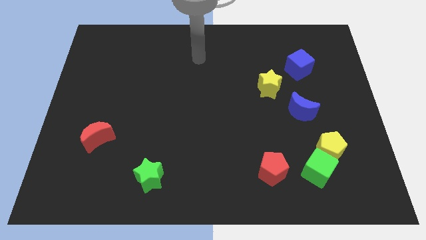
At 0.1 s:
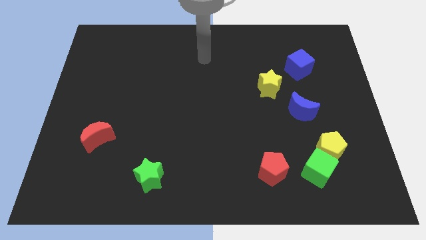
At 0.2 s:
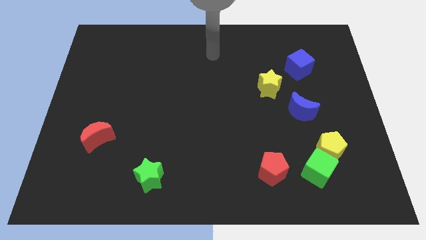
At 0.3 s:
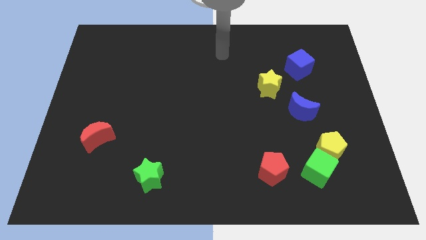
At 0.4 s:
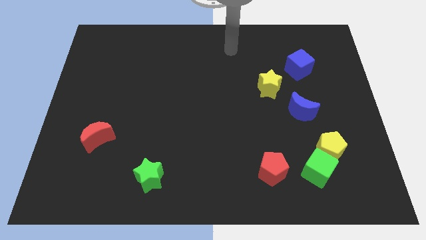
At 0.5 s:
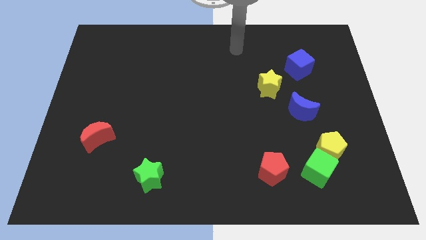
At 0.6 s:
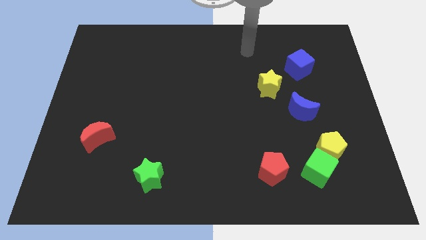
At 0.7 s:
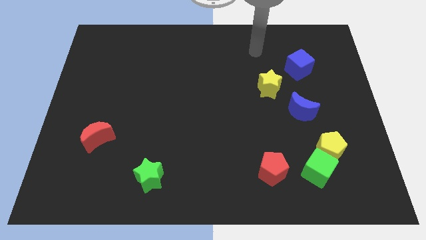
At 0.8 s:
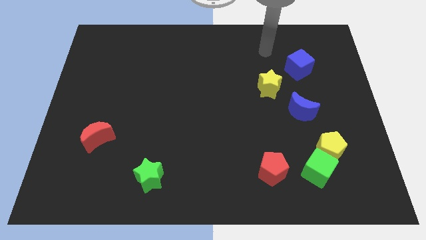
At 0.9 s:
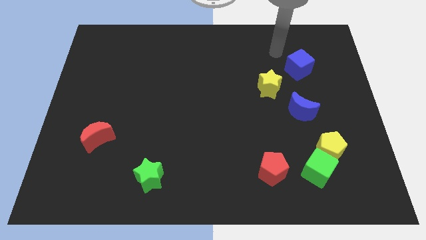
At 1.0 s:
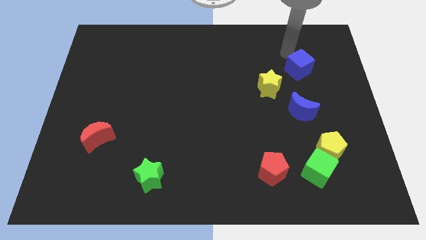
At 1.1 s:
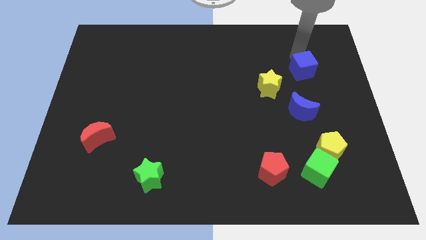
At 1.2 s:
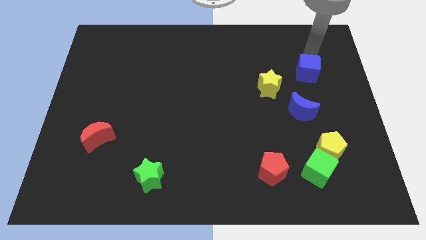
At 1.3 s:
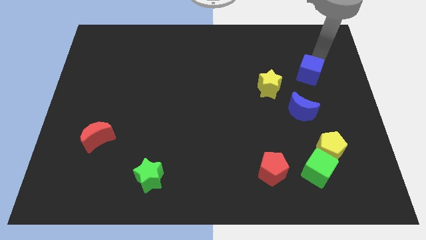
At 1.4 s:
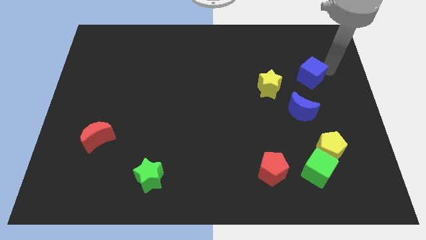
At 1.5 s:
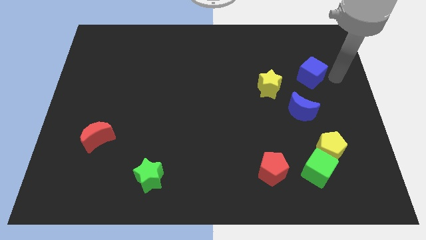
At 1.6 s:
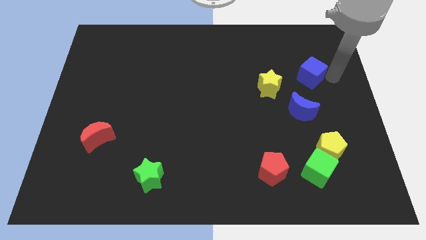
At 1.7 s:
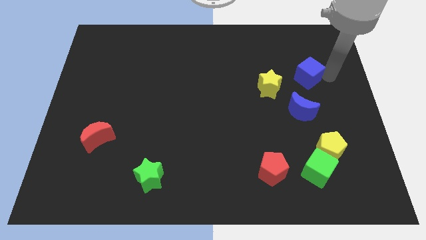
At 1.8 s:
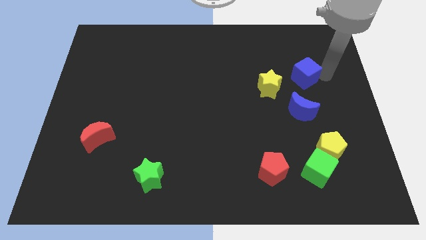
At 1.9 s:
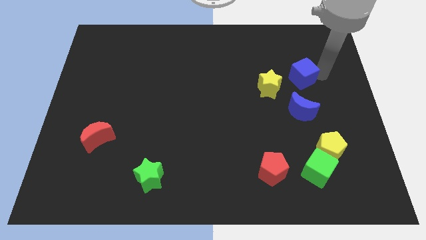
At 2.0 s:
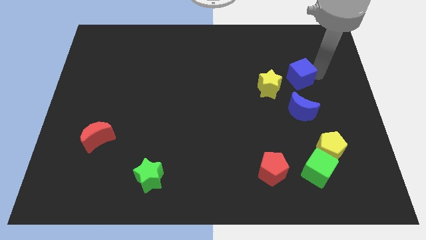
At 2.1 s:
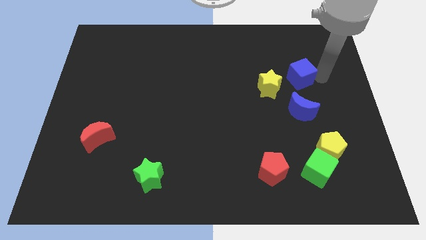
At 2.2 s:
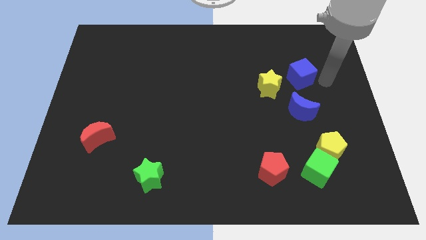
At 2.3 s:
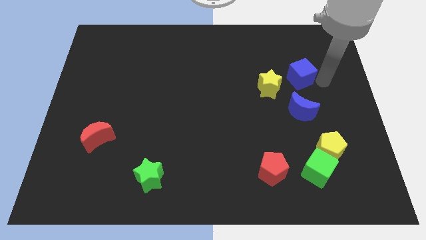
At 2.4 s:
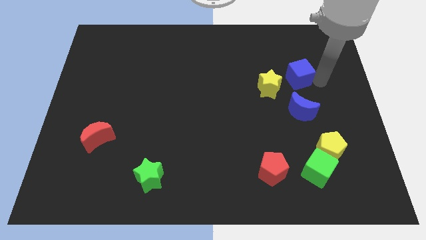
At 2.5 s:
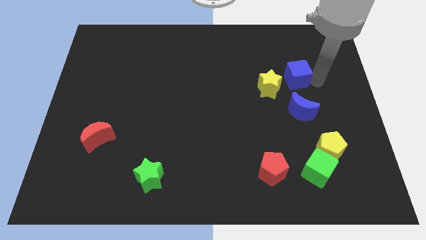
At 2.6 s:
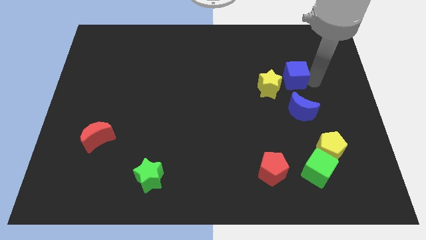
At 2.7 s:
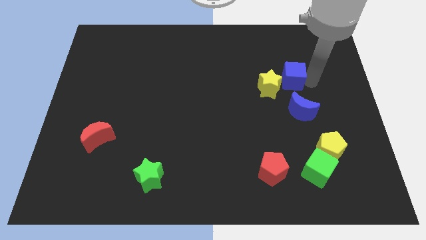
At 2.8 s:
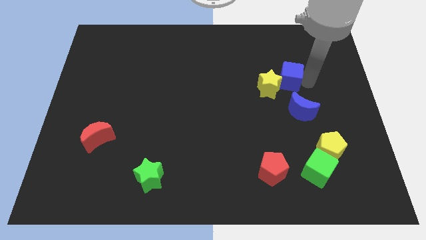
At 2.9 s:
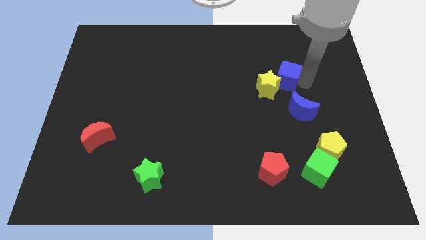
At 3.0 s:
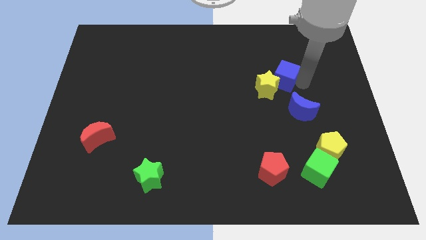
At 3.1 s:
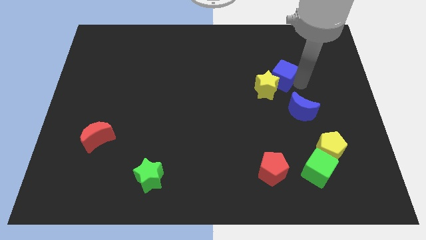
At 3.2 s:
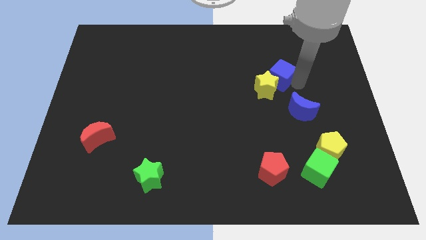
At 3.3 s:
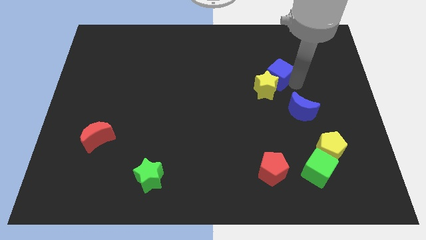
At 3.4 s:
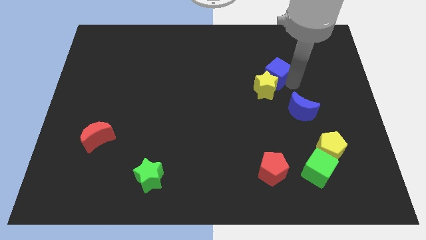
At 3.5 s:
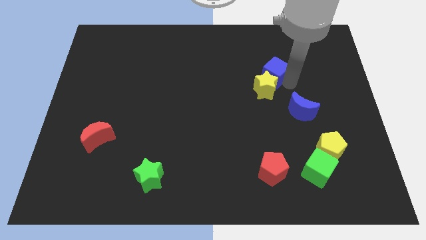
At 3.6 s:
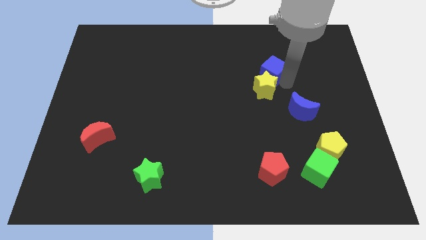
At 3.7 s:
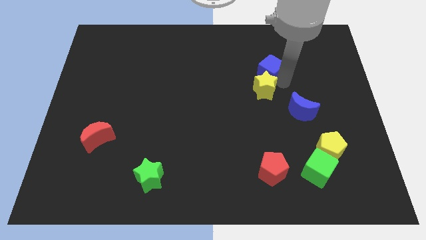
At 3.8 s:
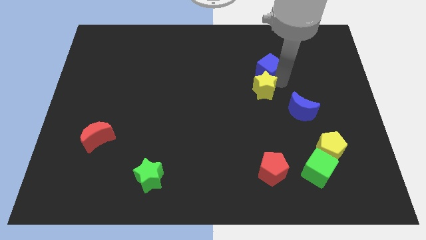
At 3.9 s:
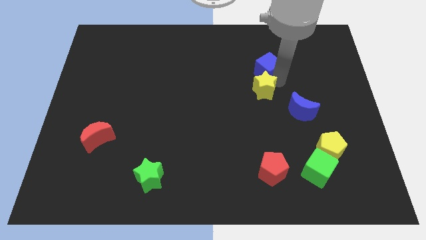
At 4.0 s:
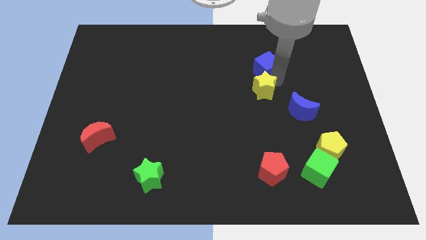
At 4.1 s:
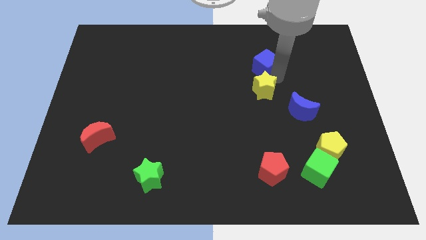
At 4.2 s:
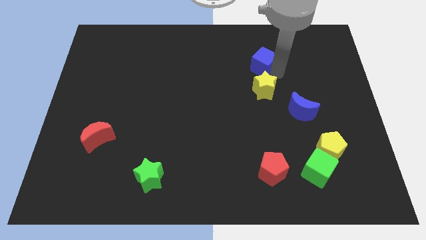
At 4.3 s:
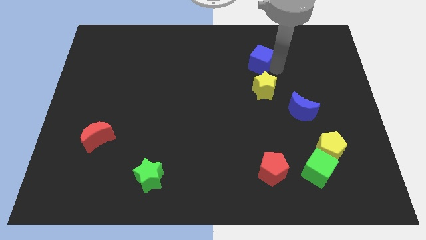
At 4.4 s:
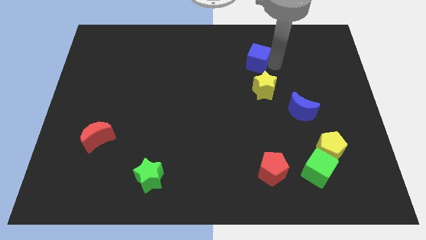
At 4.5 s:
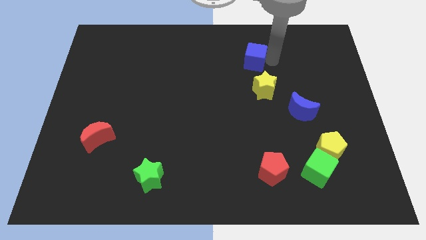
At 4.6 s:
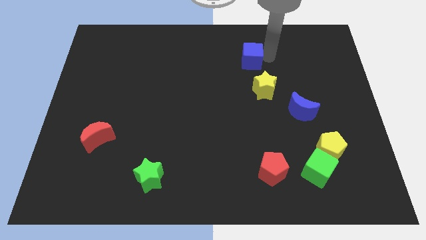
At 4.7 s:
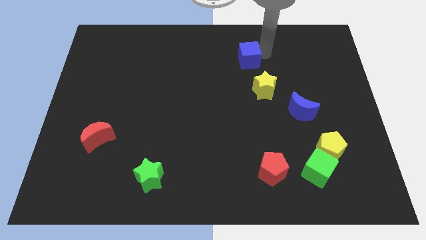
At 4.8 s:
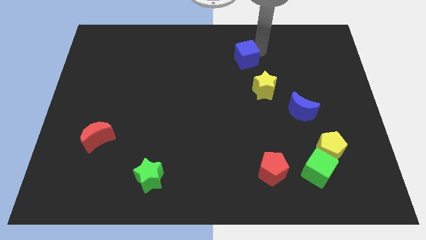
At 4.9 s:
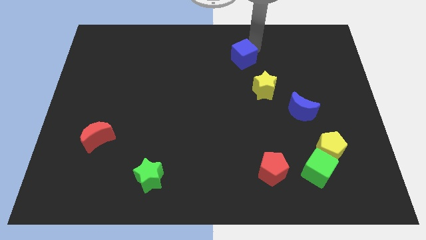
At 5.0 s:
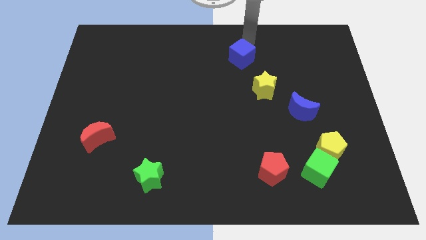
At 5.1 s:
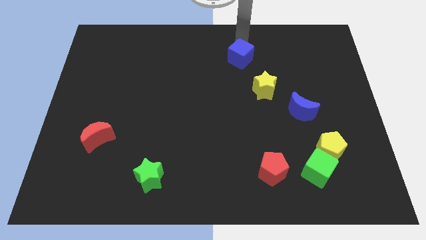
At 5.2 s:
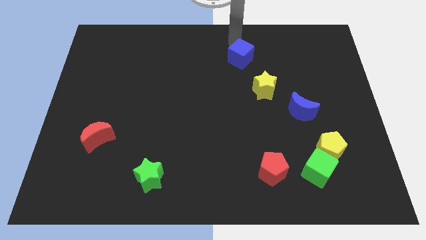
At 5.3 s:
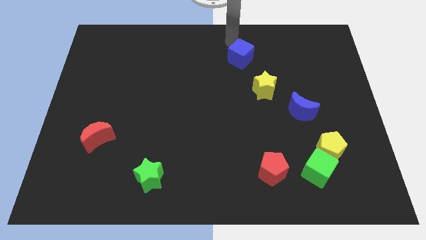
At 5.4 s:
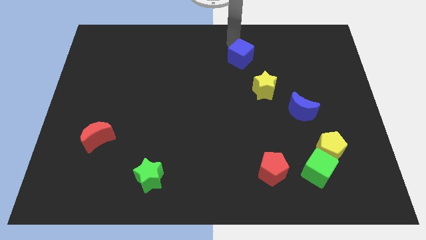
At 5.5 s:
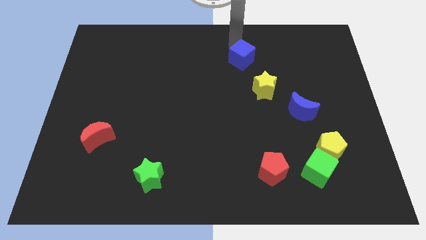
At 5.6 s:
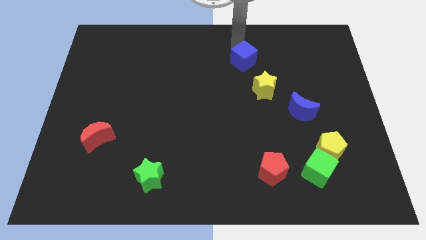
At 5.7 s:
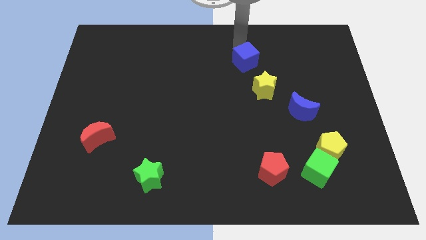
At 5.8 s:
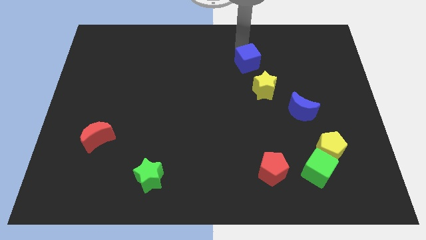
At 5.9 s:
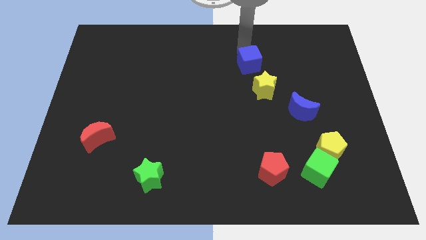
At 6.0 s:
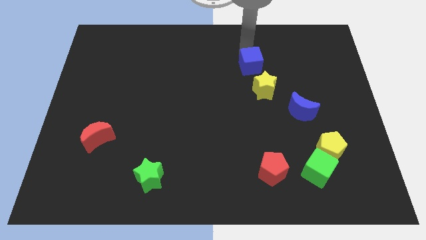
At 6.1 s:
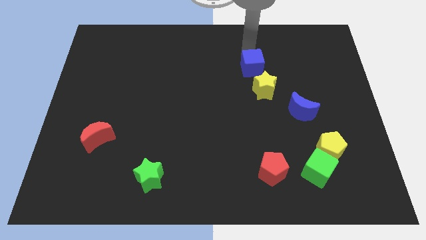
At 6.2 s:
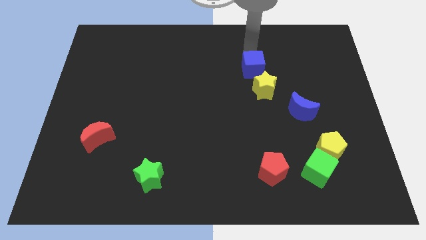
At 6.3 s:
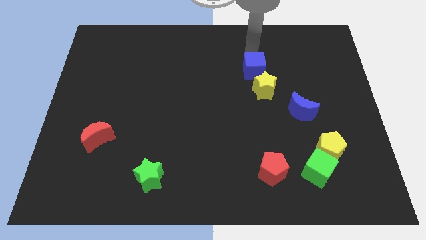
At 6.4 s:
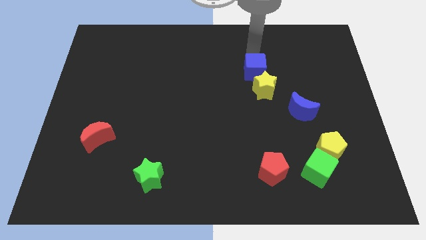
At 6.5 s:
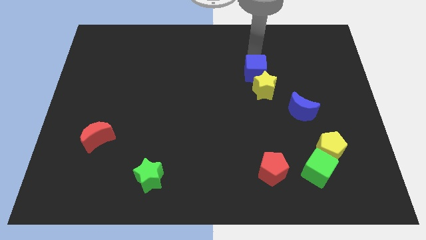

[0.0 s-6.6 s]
move the blue cube down and to the left diagonally a little

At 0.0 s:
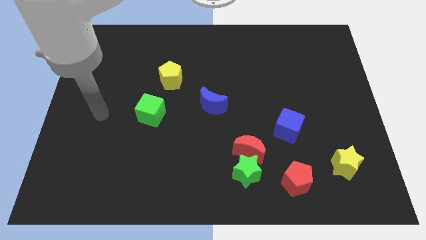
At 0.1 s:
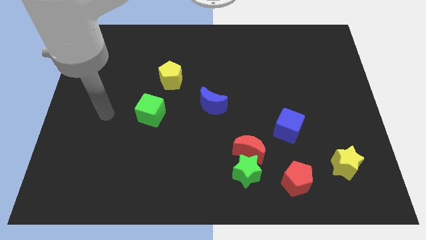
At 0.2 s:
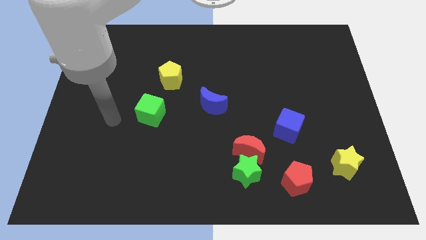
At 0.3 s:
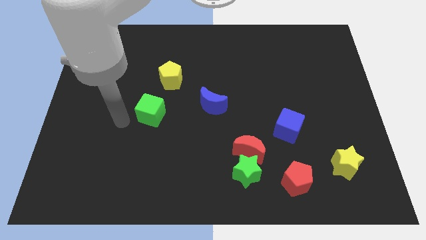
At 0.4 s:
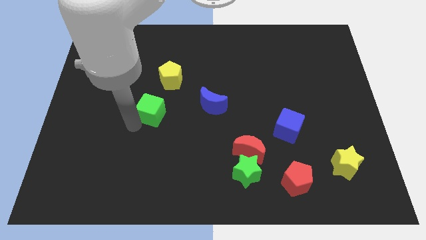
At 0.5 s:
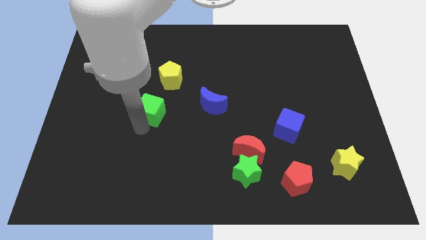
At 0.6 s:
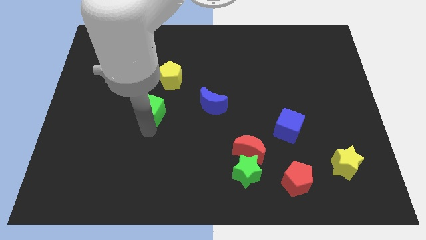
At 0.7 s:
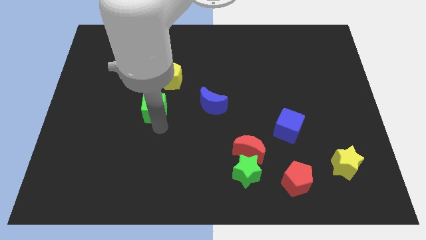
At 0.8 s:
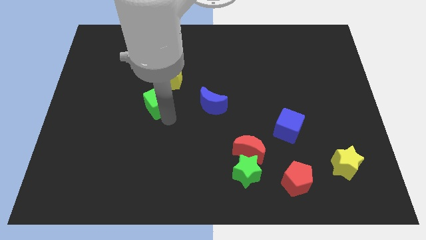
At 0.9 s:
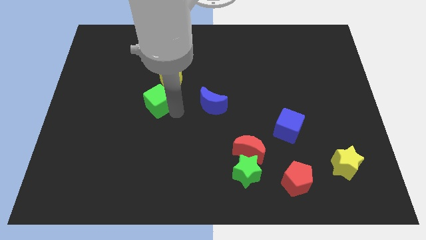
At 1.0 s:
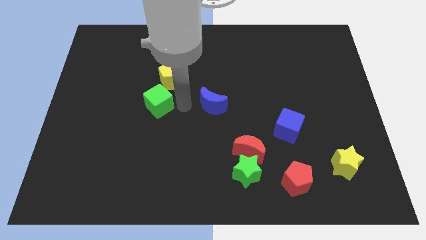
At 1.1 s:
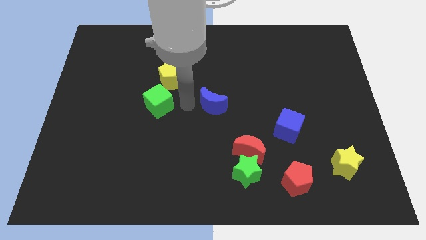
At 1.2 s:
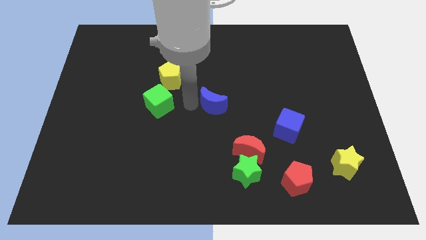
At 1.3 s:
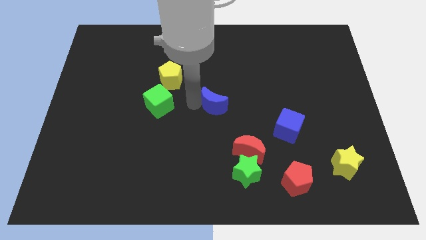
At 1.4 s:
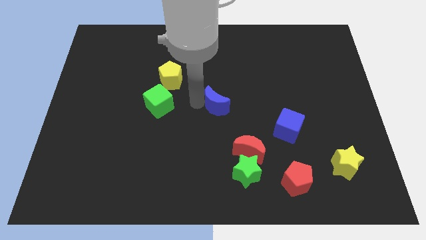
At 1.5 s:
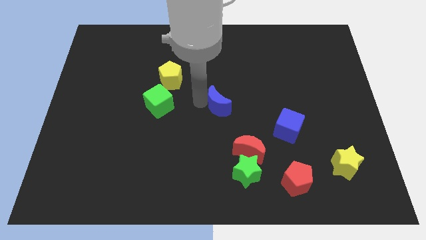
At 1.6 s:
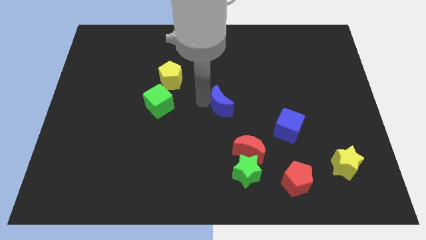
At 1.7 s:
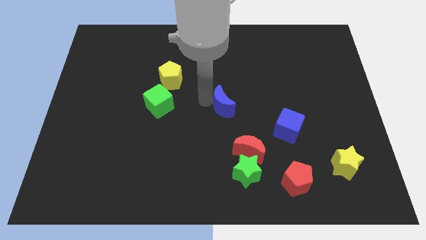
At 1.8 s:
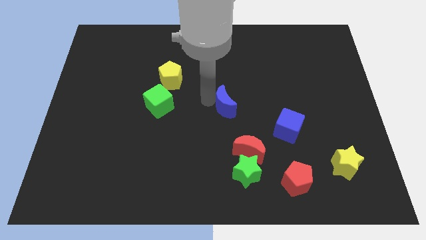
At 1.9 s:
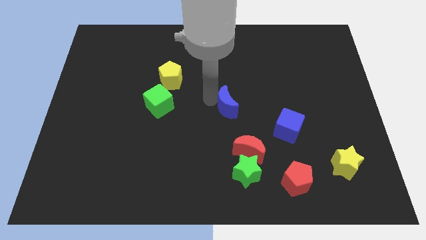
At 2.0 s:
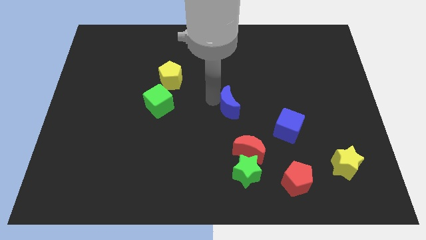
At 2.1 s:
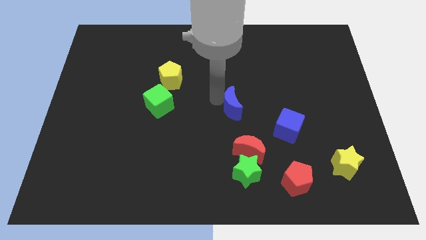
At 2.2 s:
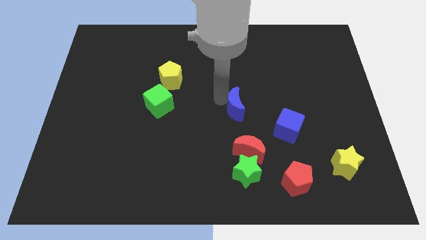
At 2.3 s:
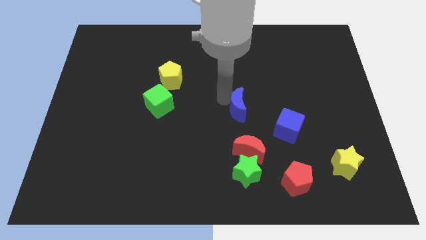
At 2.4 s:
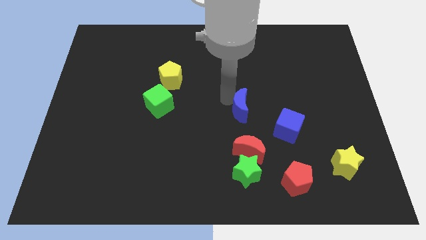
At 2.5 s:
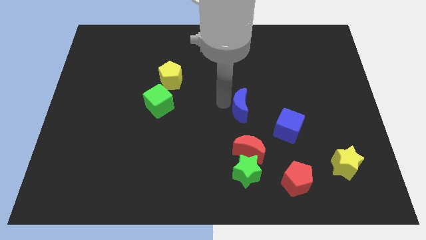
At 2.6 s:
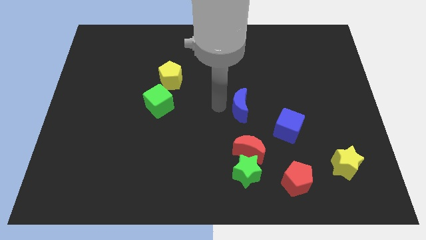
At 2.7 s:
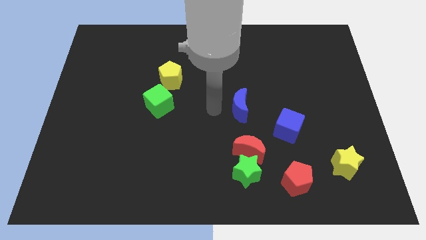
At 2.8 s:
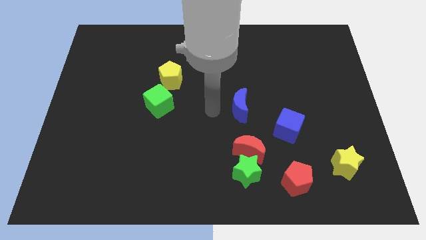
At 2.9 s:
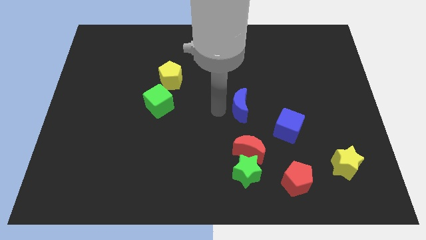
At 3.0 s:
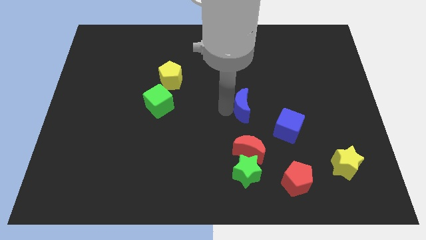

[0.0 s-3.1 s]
slightly move the blue moon to the right
